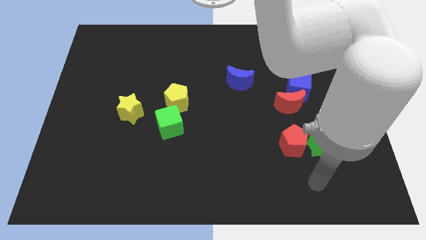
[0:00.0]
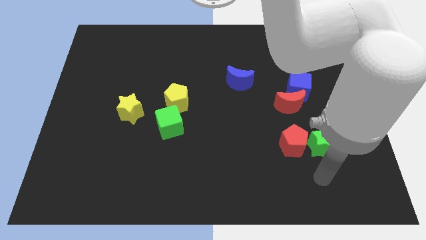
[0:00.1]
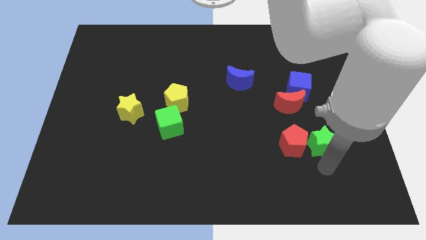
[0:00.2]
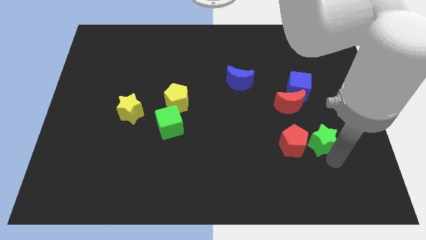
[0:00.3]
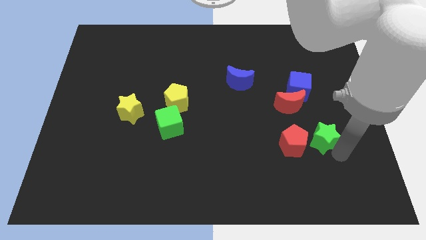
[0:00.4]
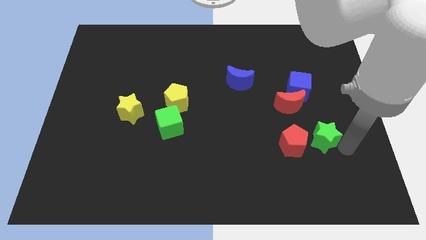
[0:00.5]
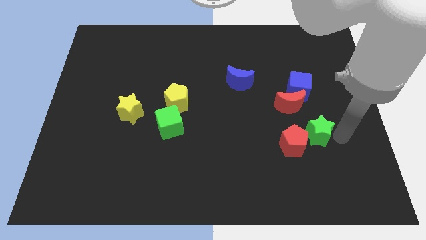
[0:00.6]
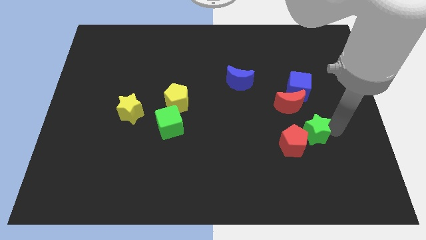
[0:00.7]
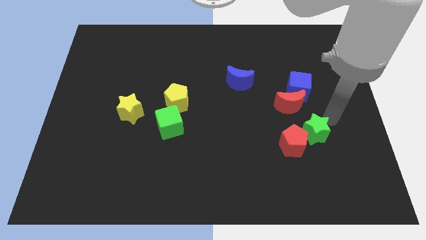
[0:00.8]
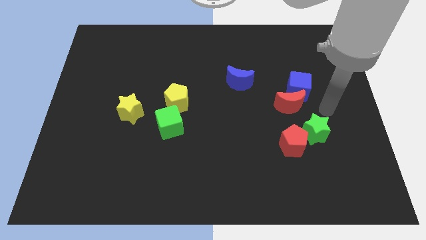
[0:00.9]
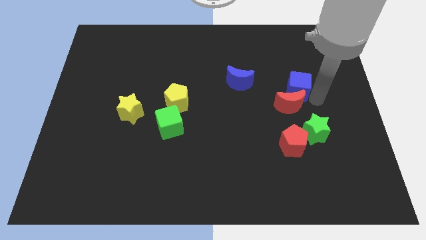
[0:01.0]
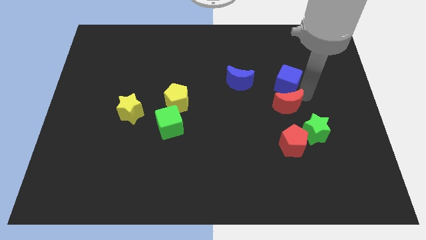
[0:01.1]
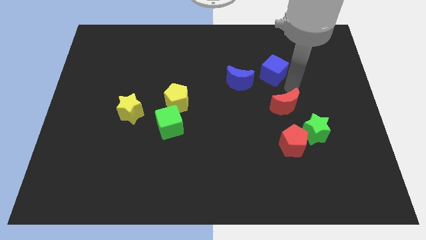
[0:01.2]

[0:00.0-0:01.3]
separate the red moon from the blue cube

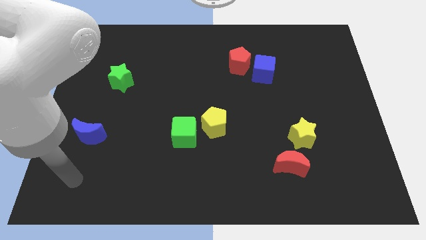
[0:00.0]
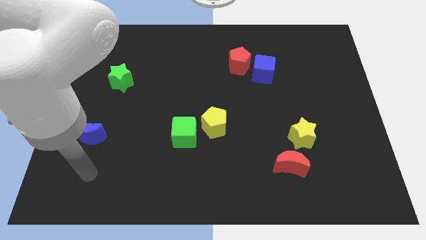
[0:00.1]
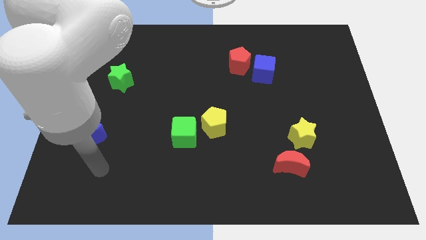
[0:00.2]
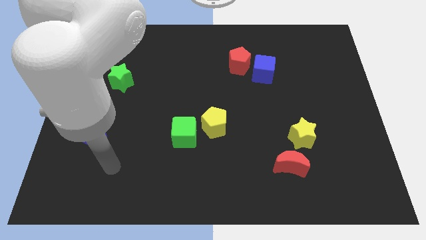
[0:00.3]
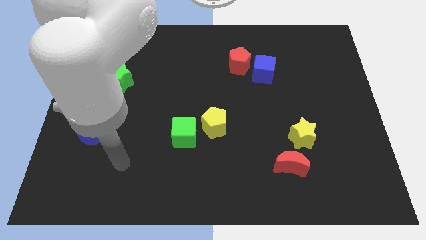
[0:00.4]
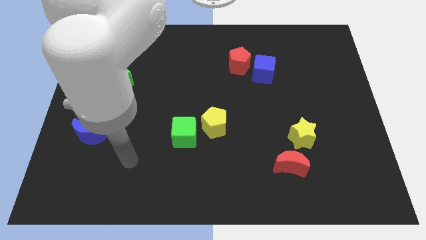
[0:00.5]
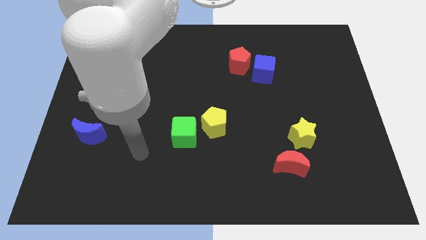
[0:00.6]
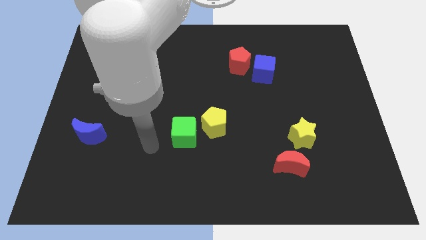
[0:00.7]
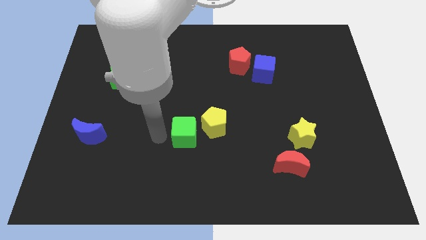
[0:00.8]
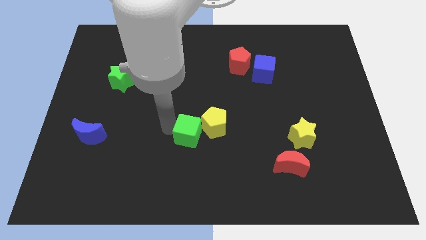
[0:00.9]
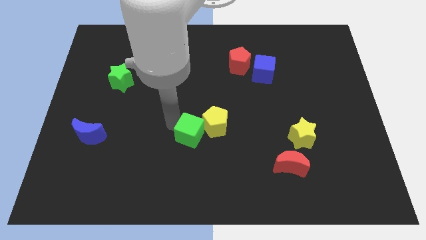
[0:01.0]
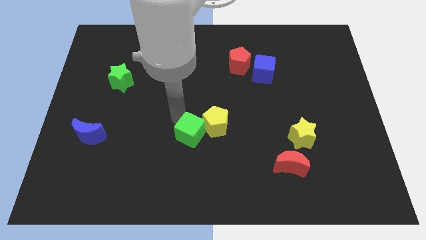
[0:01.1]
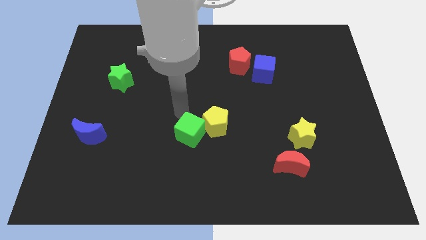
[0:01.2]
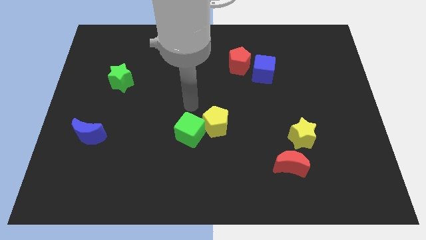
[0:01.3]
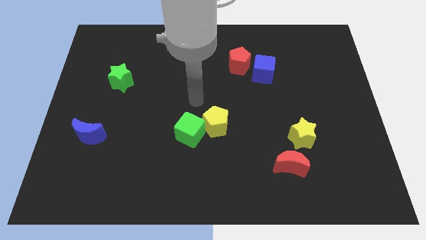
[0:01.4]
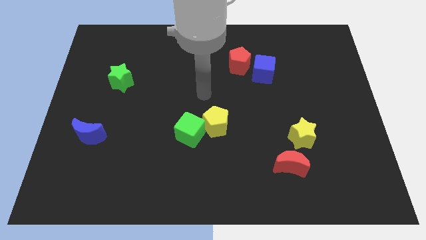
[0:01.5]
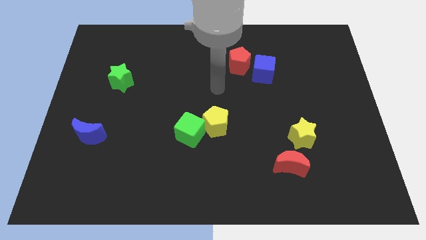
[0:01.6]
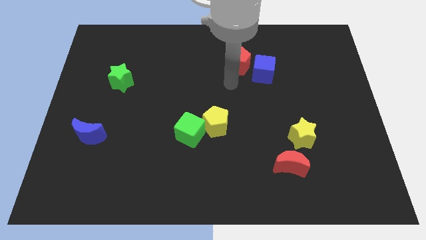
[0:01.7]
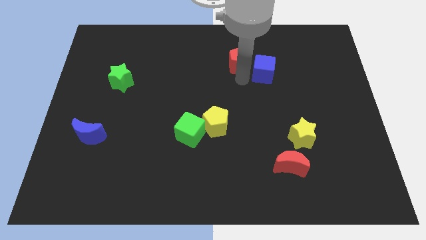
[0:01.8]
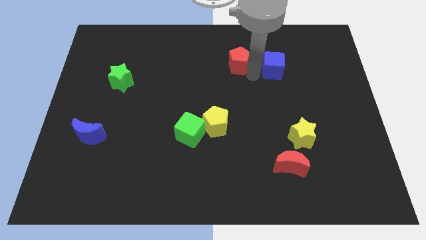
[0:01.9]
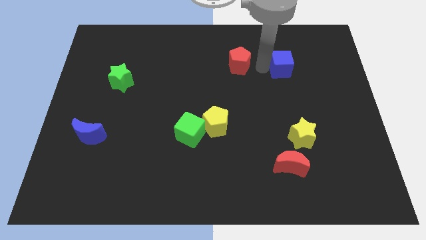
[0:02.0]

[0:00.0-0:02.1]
move the red pentagon away from the blue cube

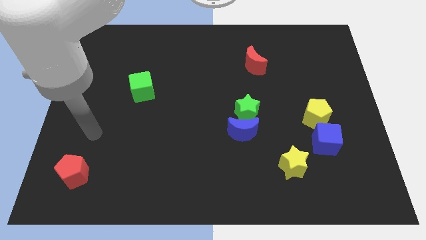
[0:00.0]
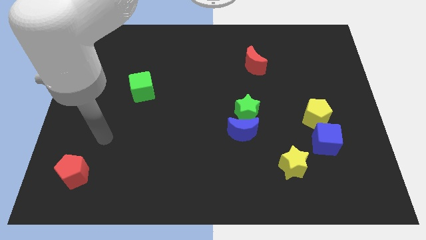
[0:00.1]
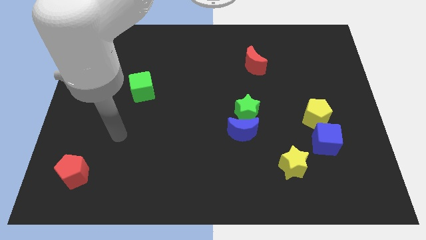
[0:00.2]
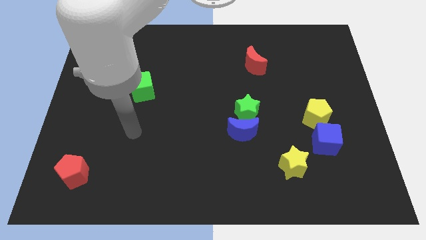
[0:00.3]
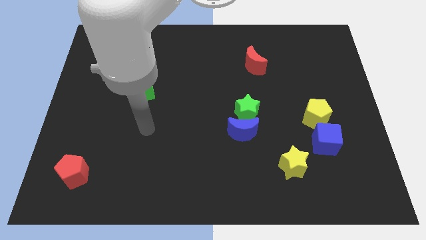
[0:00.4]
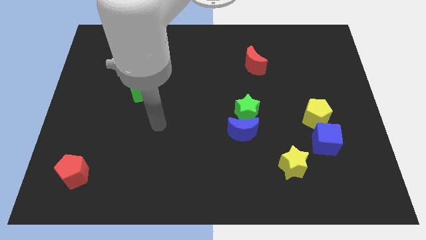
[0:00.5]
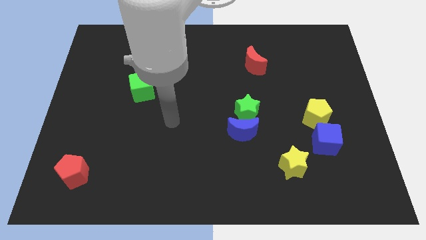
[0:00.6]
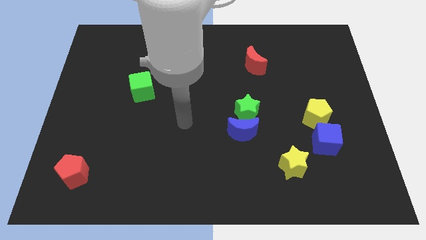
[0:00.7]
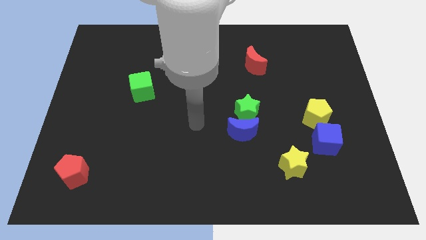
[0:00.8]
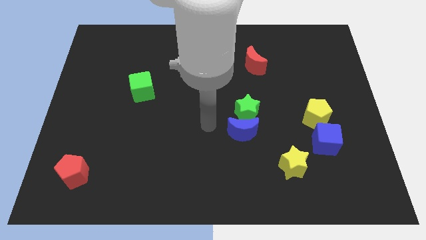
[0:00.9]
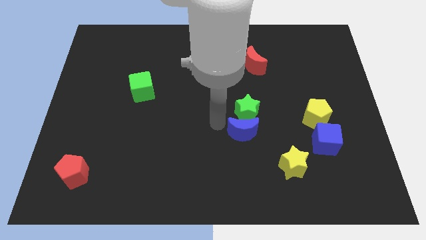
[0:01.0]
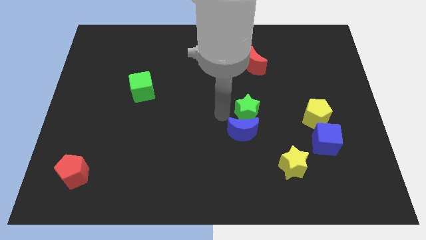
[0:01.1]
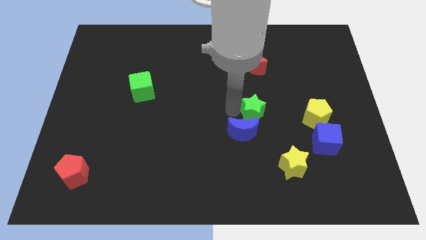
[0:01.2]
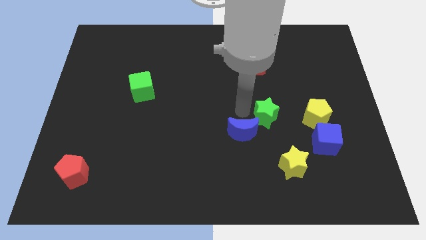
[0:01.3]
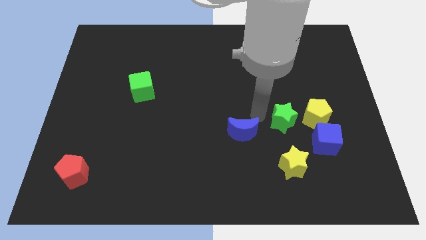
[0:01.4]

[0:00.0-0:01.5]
move the blue moon away from the green star

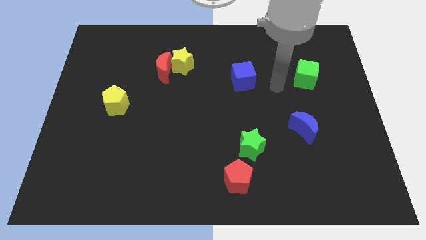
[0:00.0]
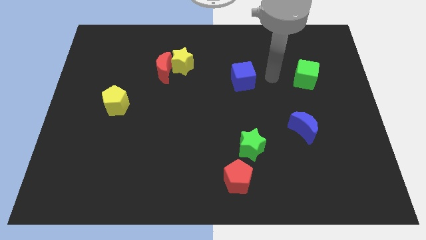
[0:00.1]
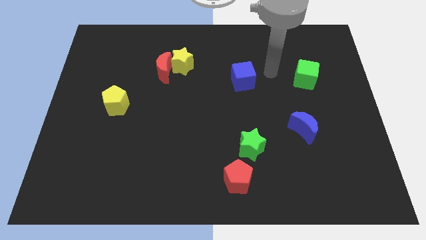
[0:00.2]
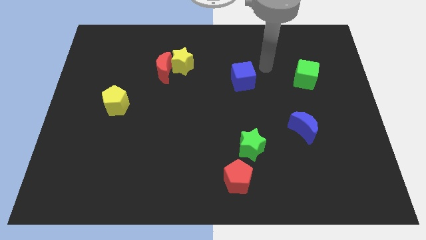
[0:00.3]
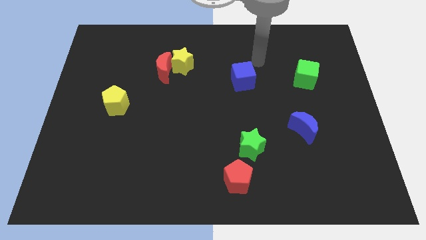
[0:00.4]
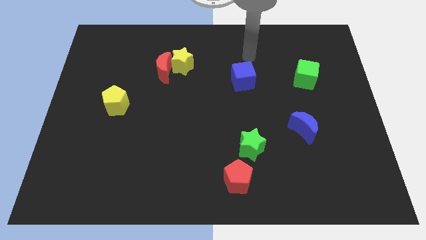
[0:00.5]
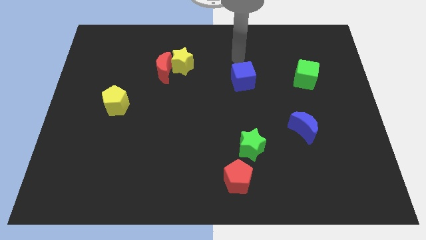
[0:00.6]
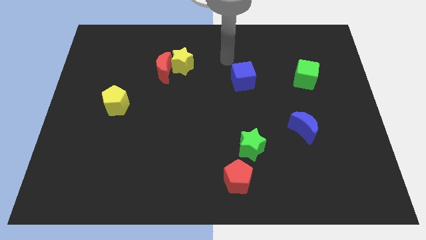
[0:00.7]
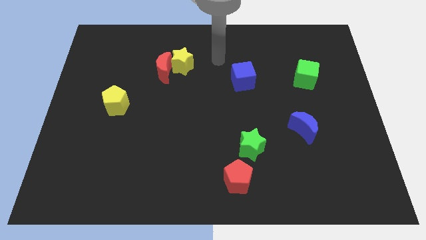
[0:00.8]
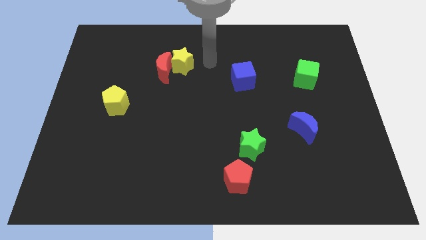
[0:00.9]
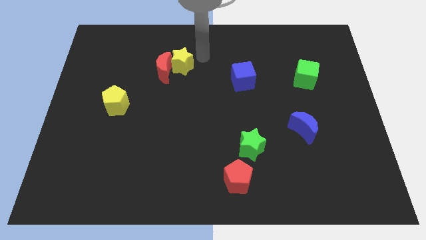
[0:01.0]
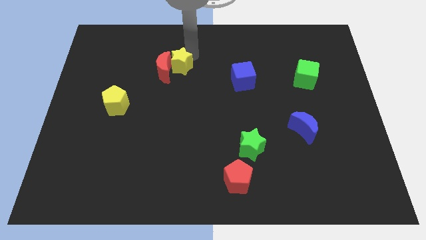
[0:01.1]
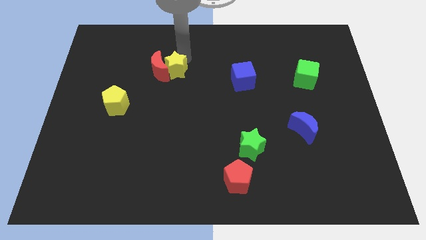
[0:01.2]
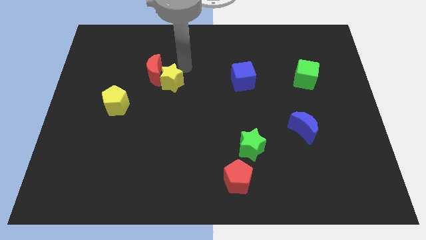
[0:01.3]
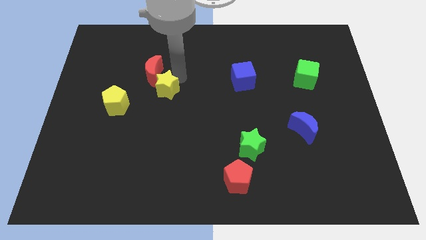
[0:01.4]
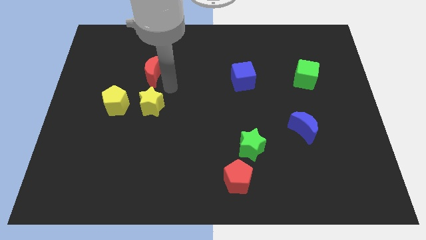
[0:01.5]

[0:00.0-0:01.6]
move the red moon away from the yellow star

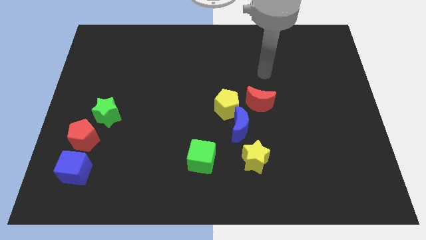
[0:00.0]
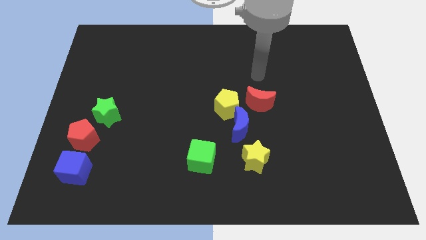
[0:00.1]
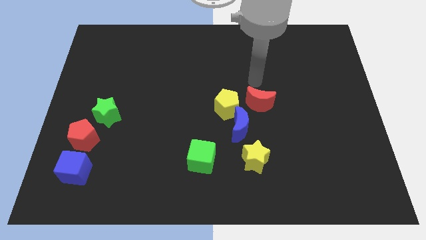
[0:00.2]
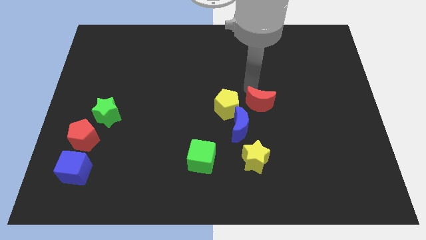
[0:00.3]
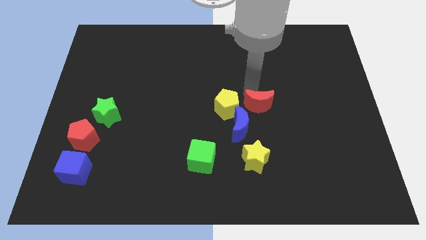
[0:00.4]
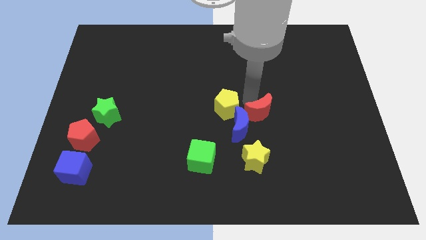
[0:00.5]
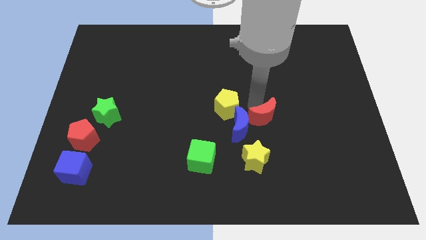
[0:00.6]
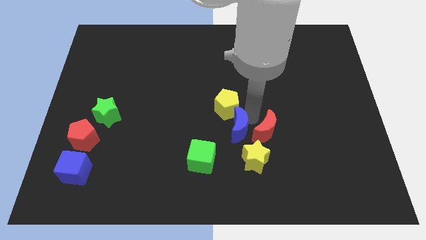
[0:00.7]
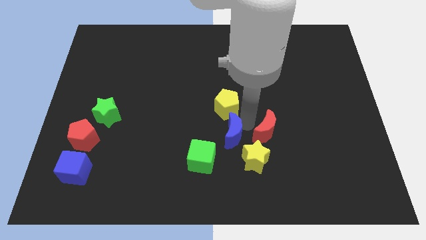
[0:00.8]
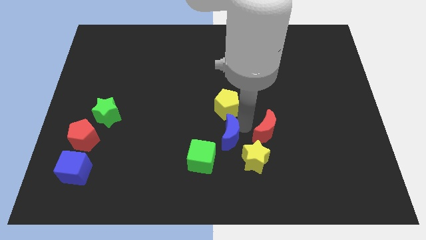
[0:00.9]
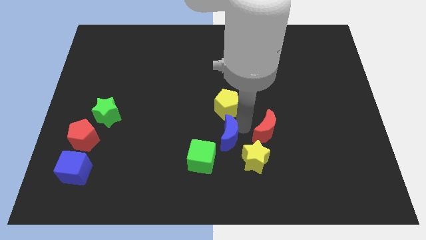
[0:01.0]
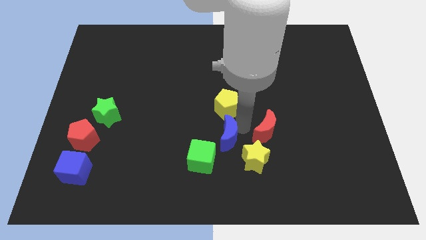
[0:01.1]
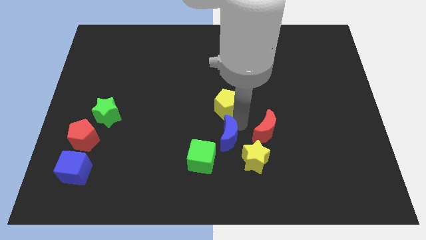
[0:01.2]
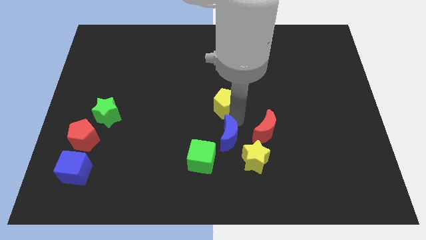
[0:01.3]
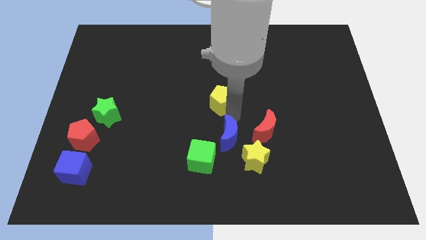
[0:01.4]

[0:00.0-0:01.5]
pull the yellow pentagon apart from the blue moon and red moon

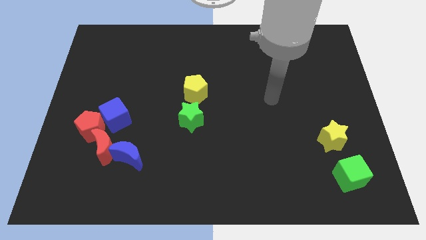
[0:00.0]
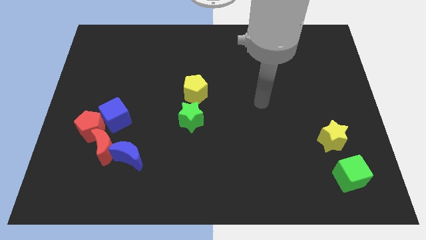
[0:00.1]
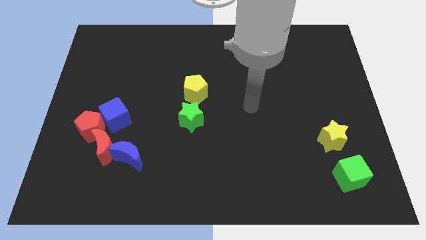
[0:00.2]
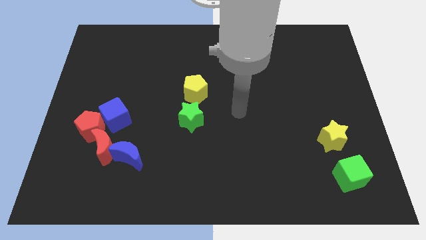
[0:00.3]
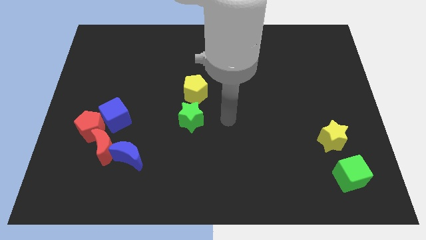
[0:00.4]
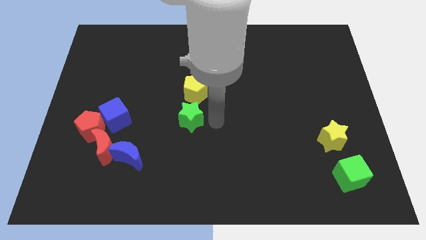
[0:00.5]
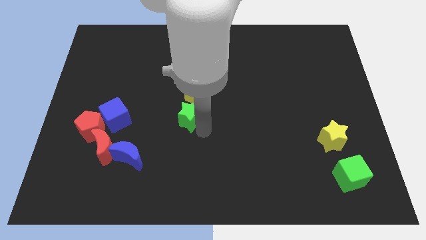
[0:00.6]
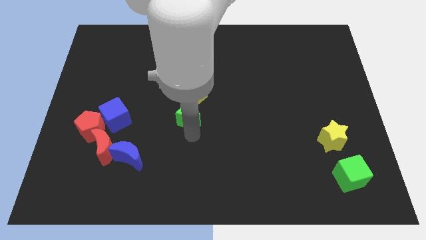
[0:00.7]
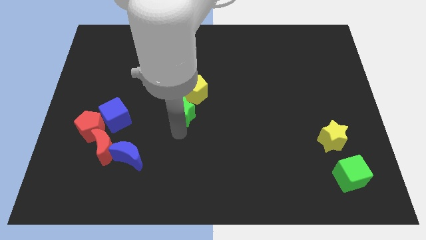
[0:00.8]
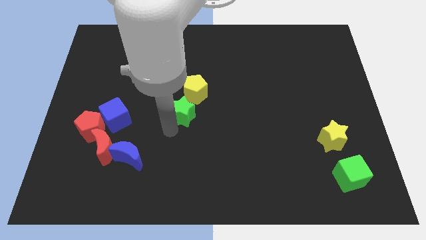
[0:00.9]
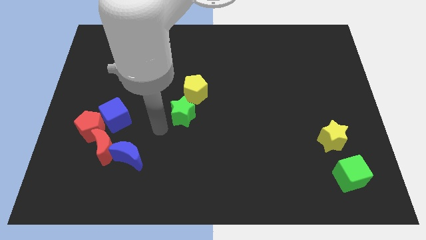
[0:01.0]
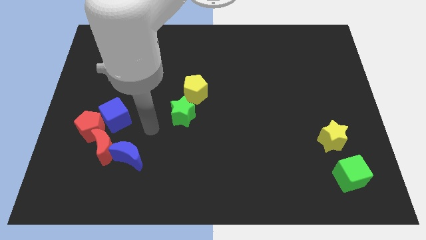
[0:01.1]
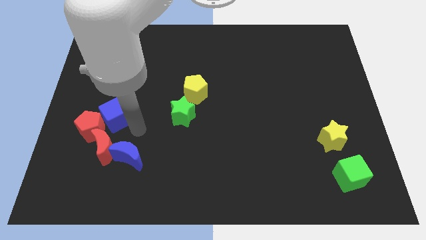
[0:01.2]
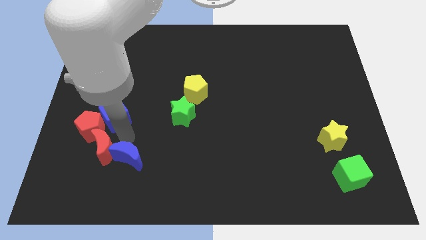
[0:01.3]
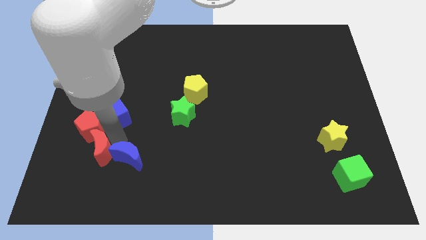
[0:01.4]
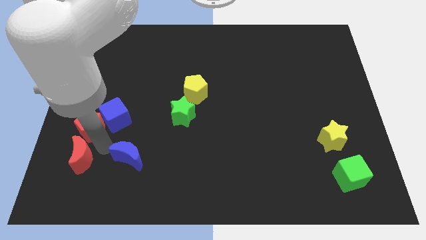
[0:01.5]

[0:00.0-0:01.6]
pull the blue moon apart from the red moon
